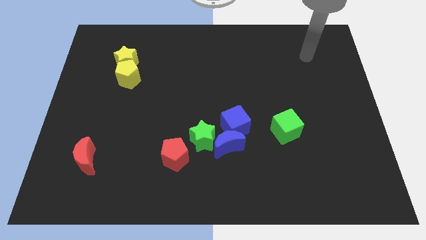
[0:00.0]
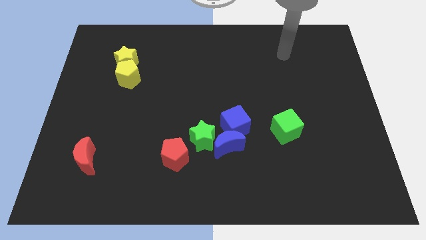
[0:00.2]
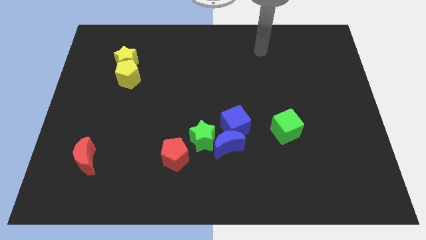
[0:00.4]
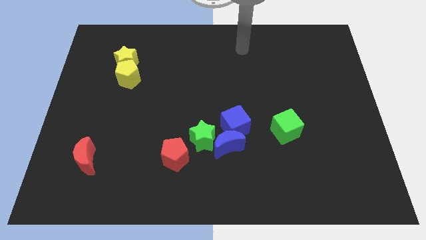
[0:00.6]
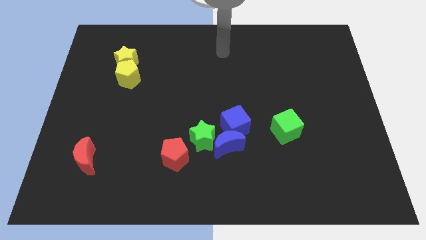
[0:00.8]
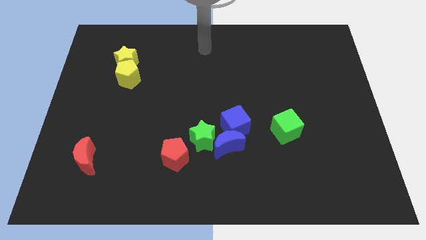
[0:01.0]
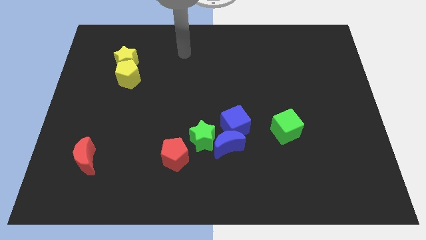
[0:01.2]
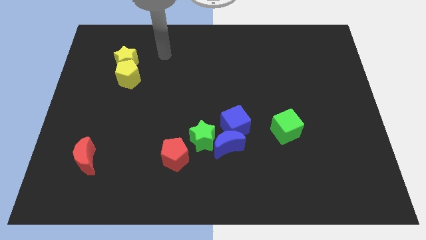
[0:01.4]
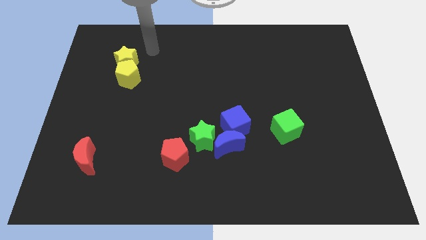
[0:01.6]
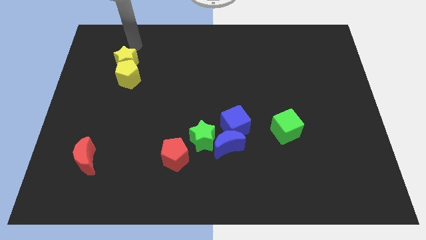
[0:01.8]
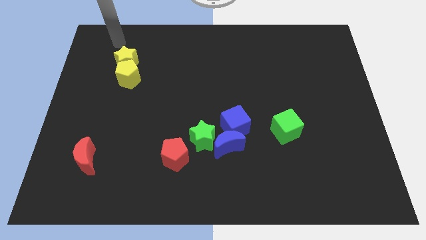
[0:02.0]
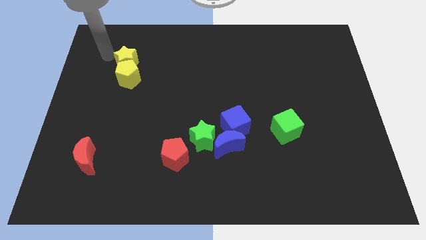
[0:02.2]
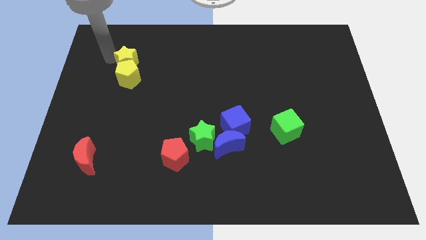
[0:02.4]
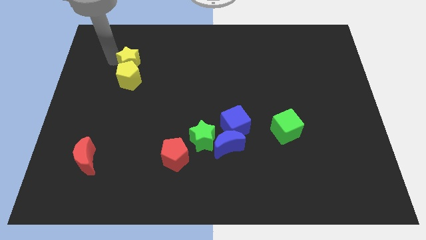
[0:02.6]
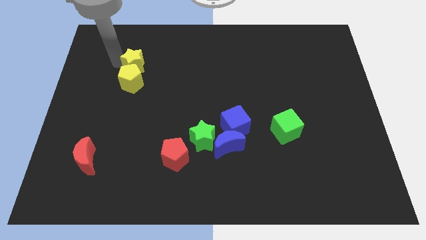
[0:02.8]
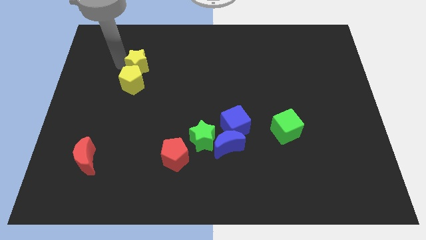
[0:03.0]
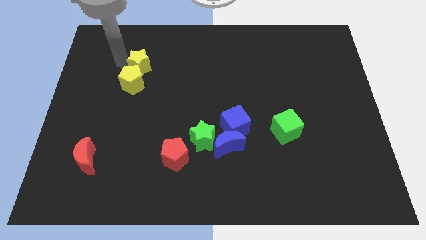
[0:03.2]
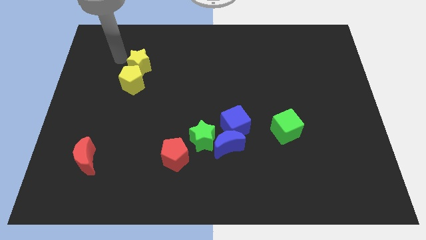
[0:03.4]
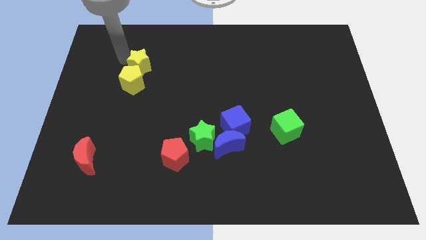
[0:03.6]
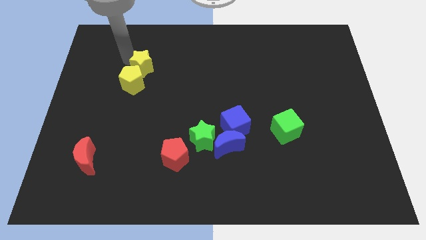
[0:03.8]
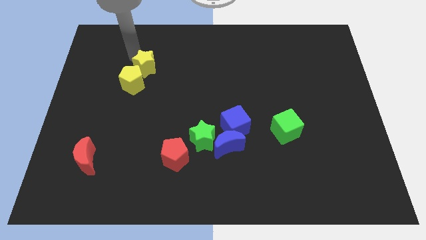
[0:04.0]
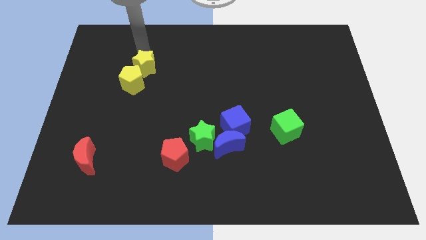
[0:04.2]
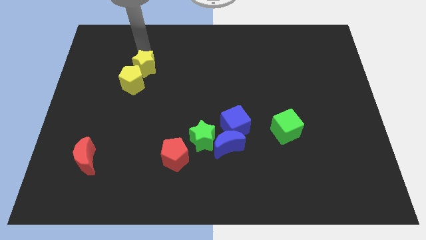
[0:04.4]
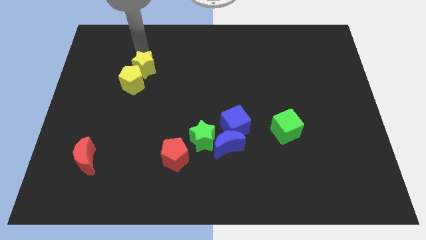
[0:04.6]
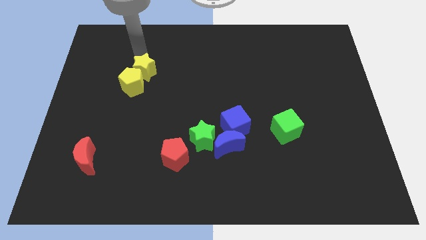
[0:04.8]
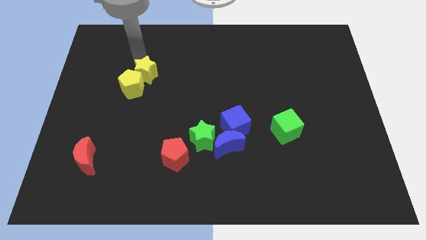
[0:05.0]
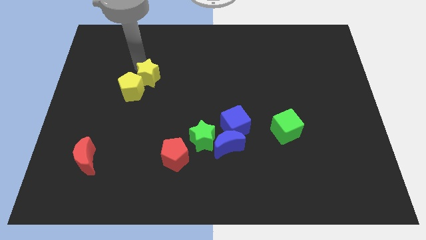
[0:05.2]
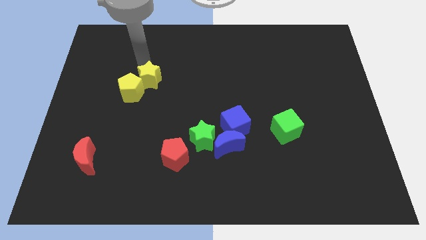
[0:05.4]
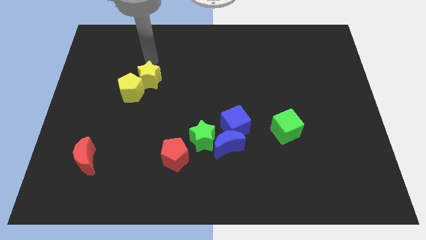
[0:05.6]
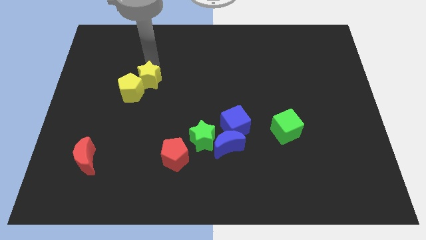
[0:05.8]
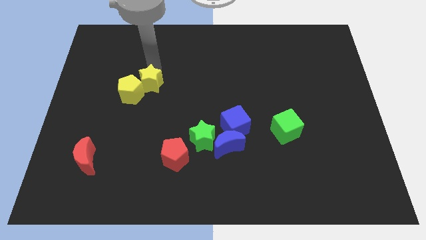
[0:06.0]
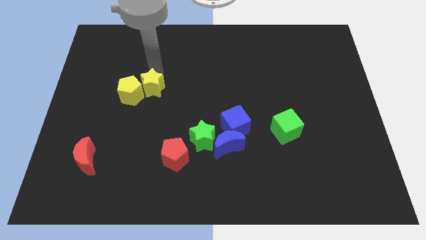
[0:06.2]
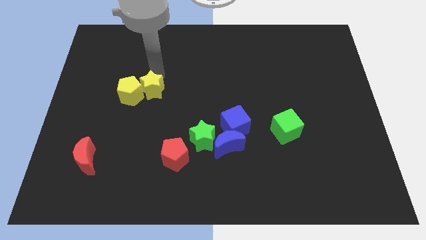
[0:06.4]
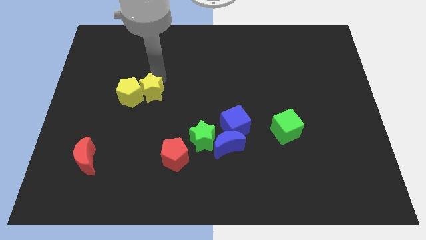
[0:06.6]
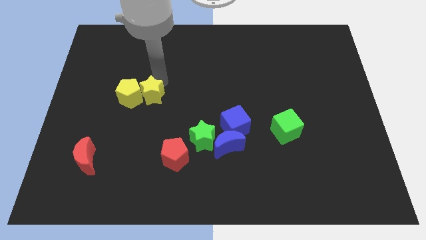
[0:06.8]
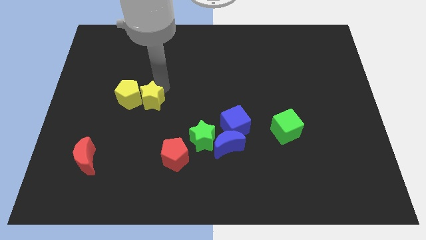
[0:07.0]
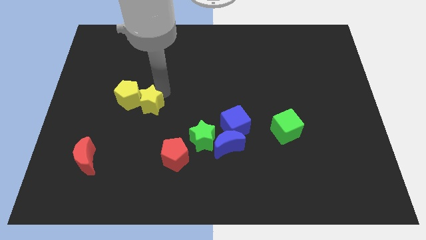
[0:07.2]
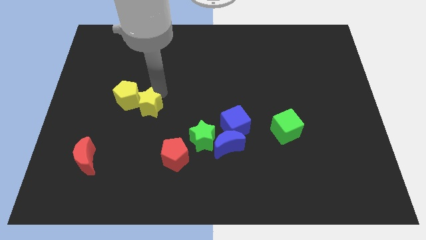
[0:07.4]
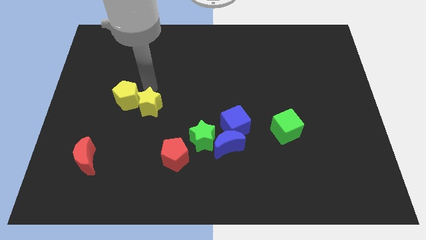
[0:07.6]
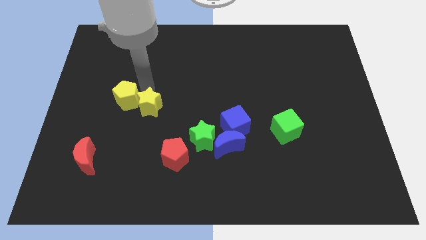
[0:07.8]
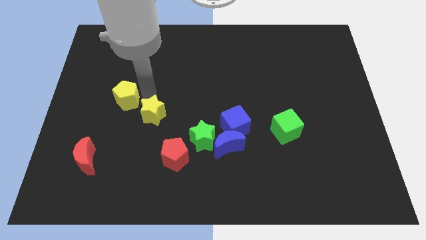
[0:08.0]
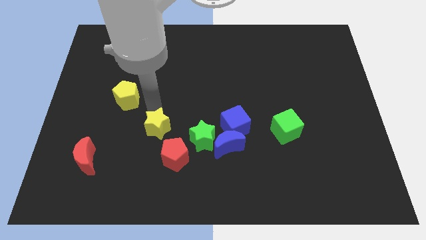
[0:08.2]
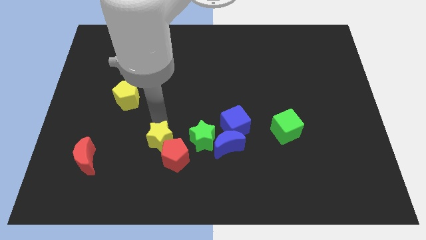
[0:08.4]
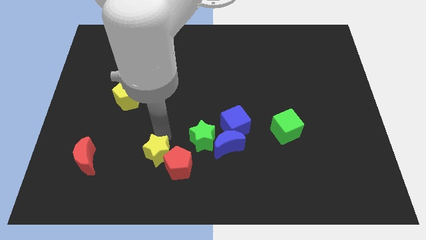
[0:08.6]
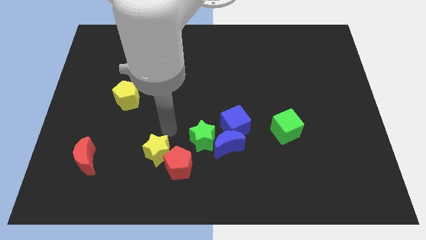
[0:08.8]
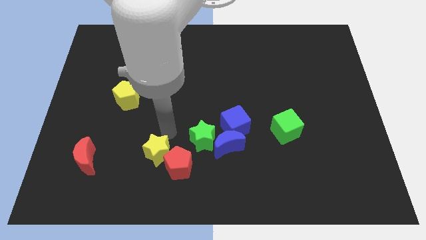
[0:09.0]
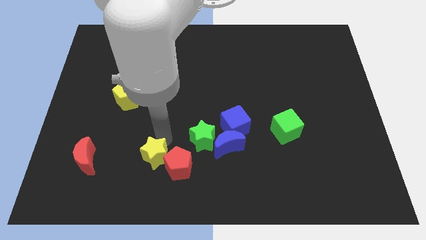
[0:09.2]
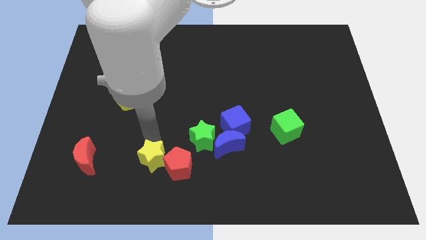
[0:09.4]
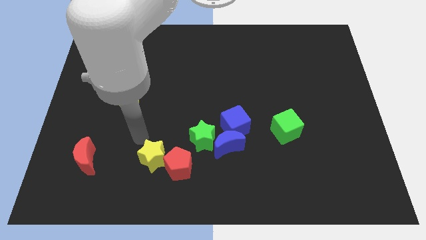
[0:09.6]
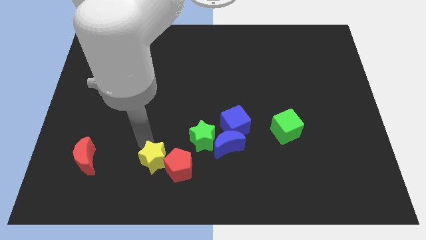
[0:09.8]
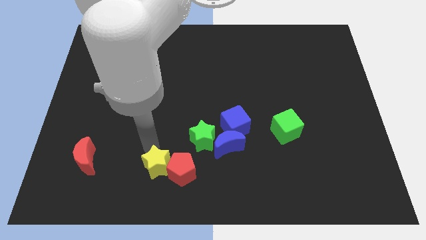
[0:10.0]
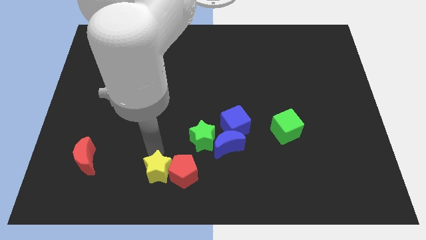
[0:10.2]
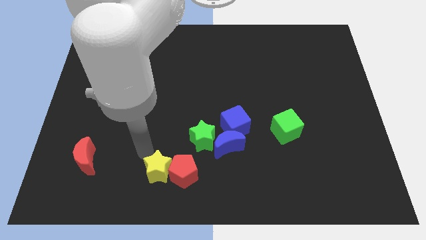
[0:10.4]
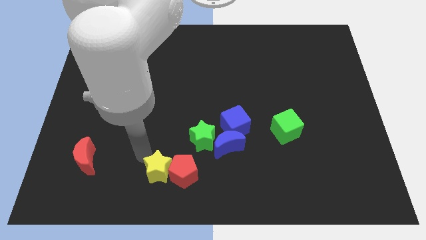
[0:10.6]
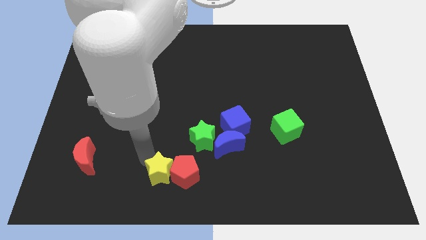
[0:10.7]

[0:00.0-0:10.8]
move the yellow star to the bottom
